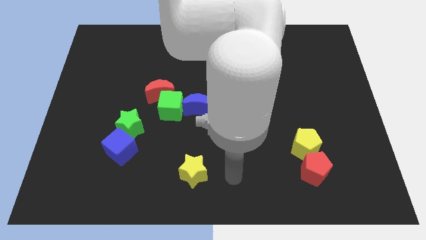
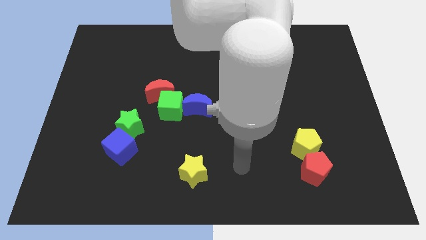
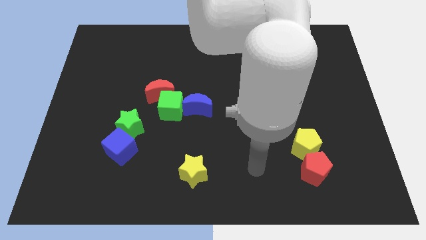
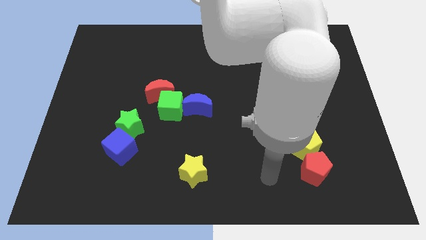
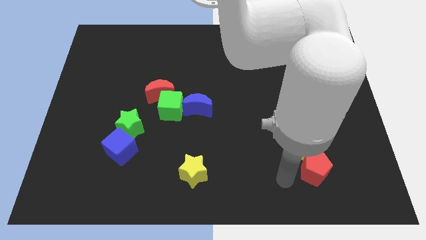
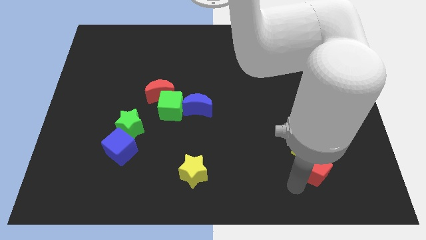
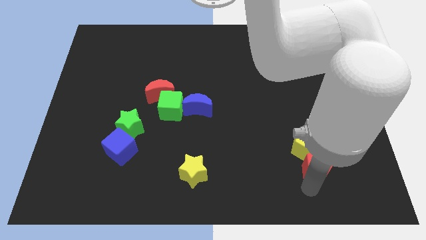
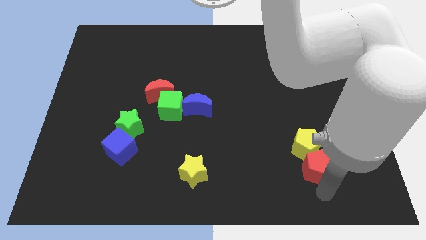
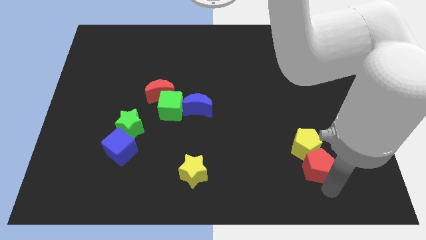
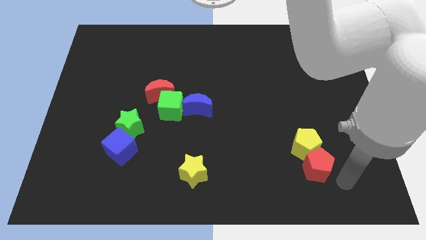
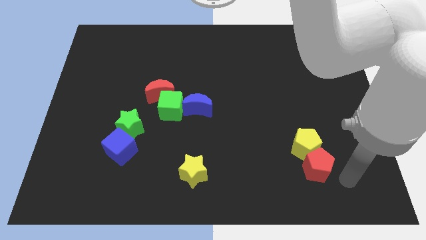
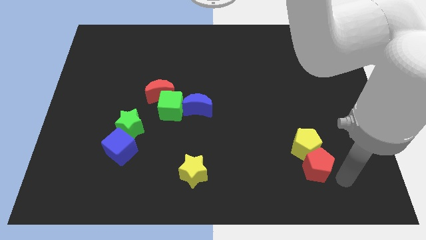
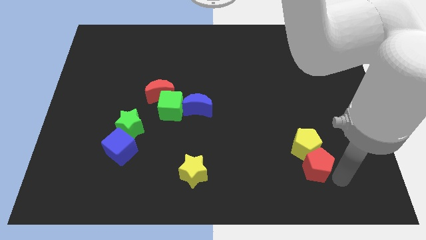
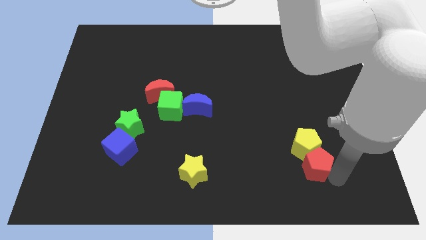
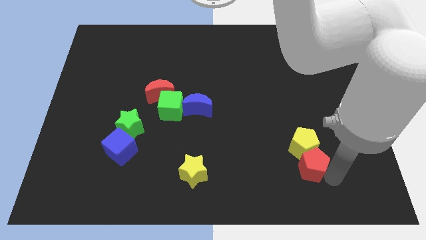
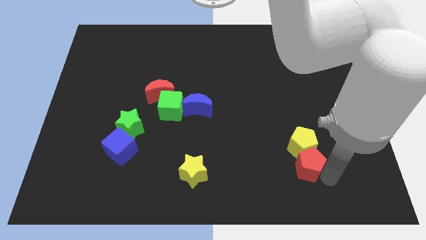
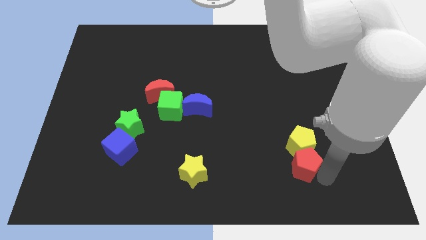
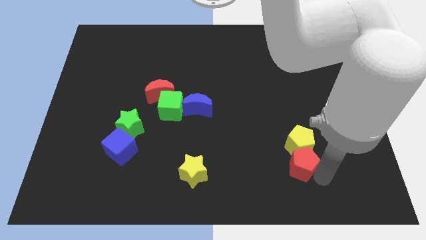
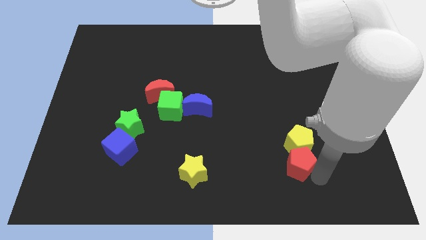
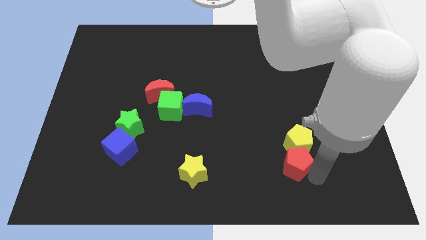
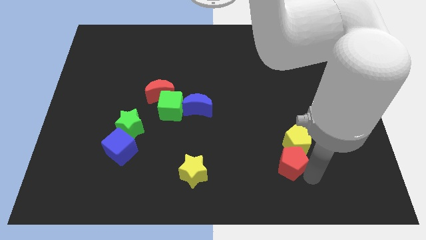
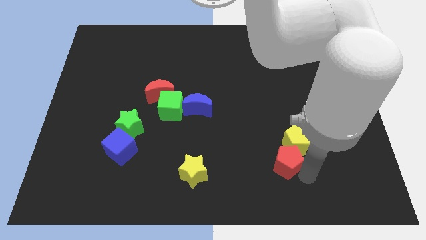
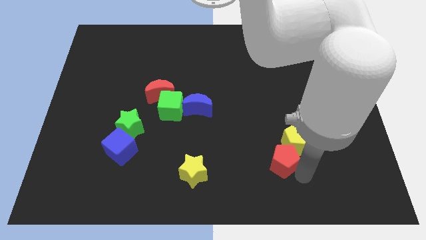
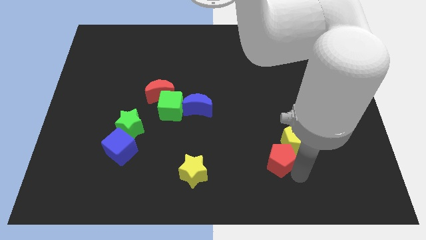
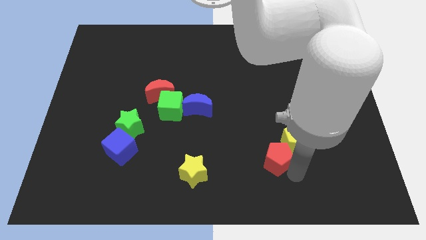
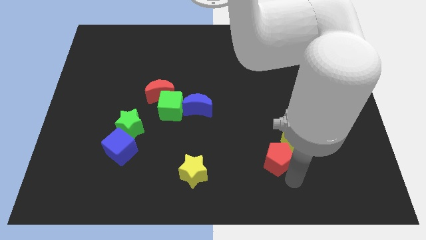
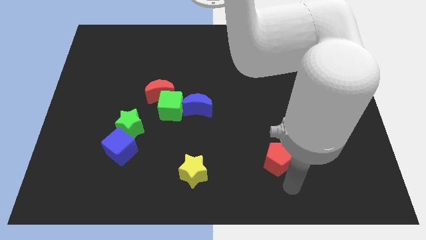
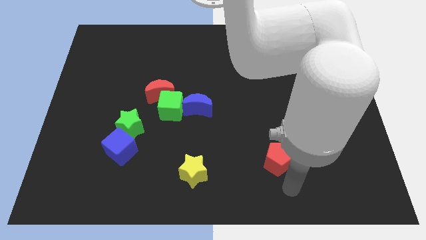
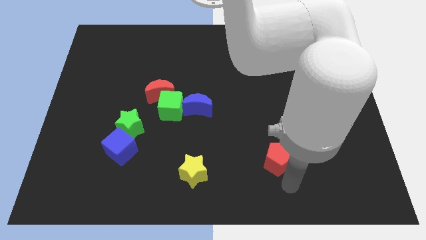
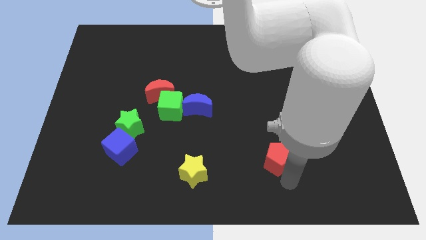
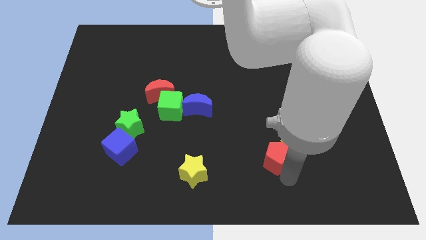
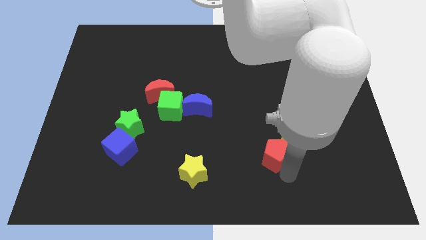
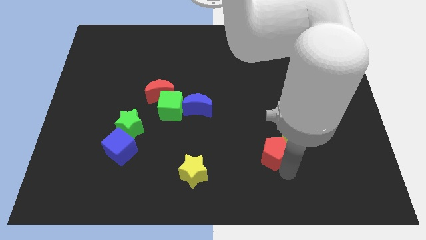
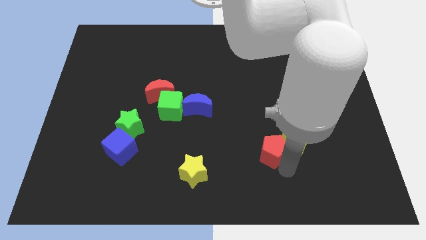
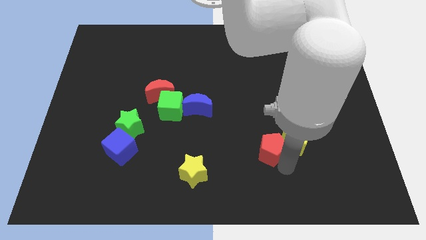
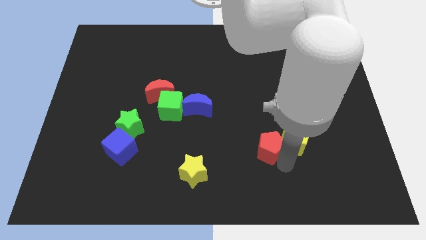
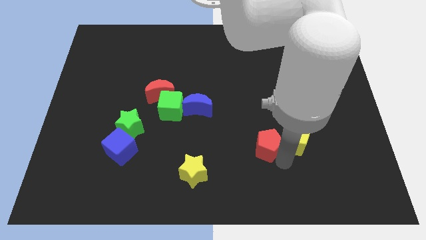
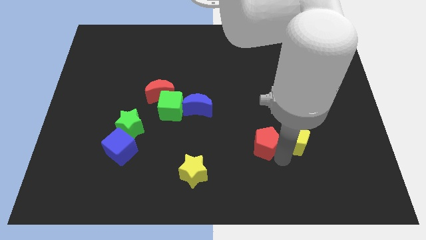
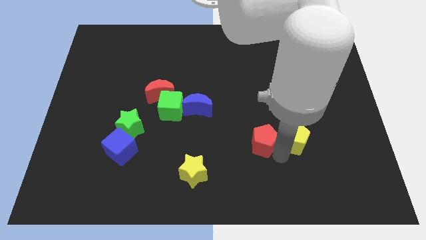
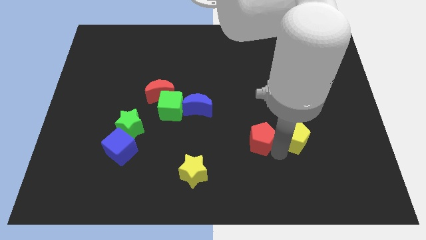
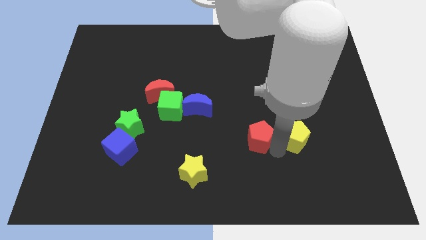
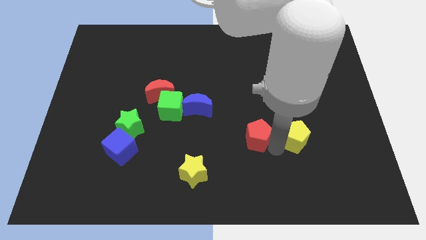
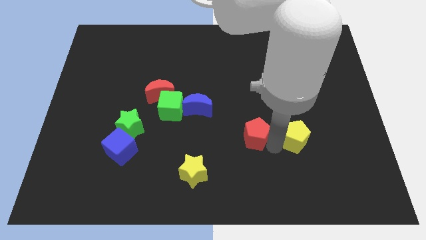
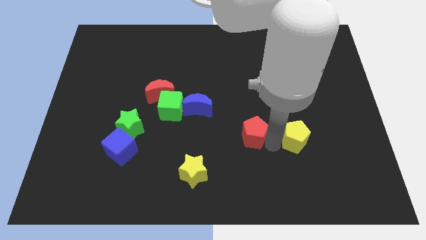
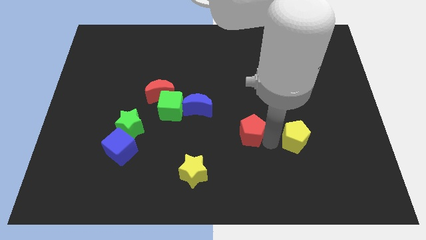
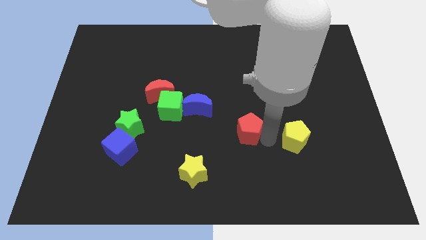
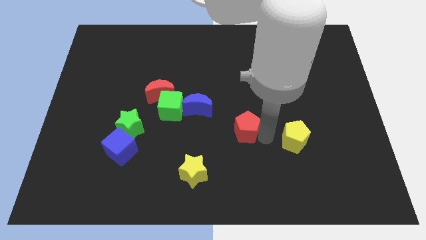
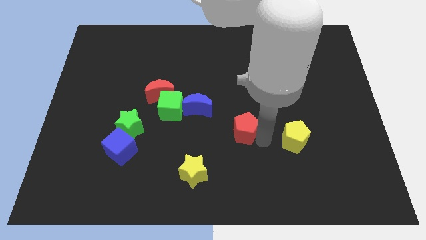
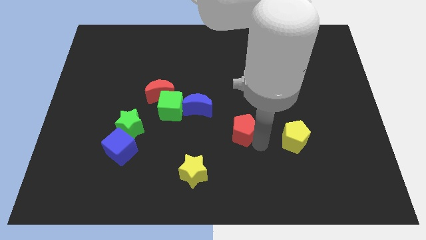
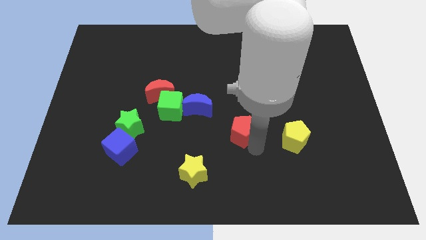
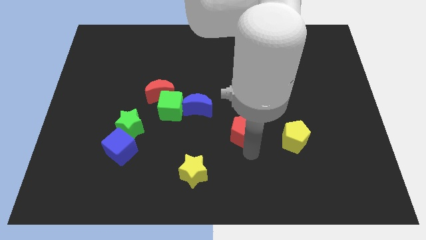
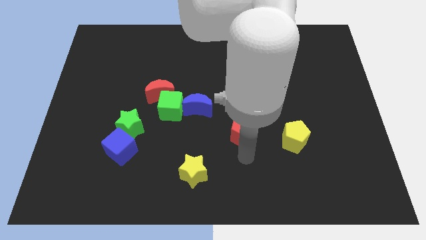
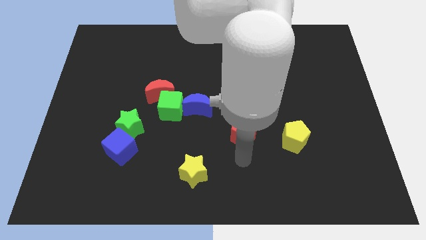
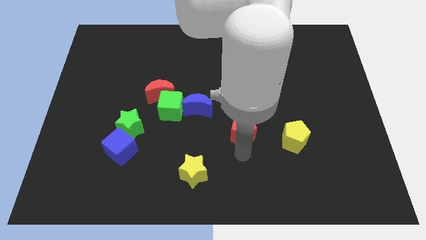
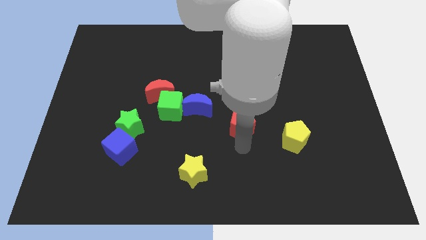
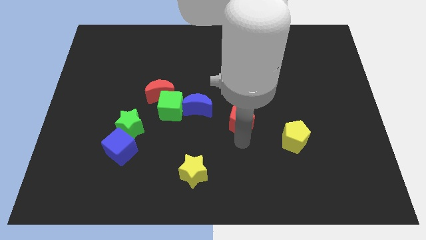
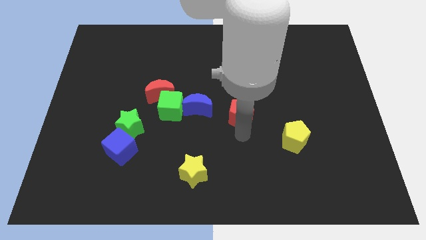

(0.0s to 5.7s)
move the red pentagon upwards and left diagonally

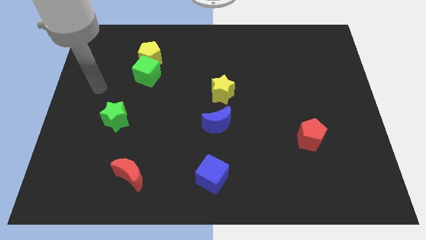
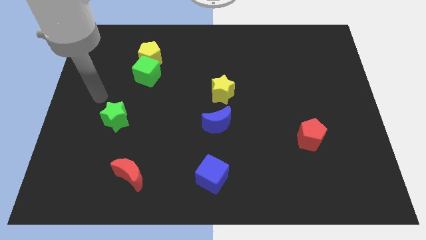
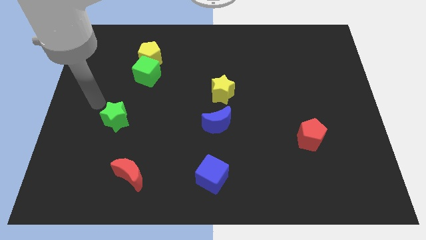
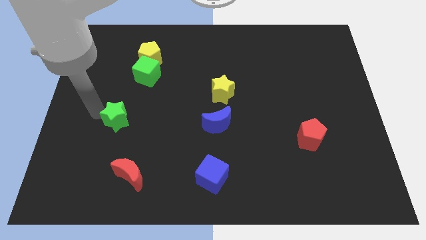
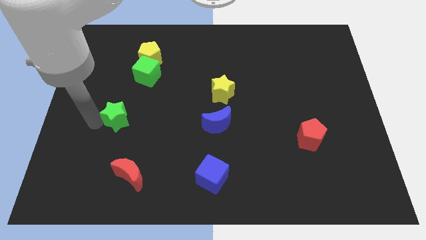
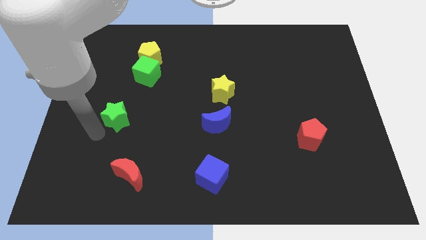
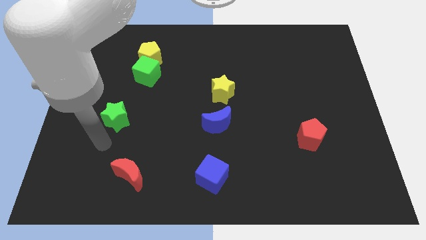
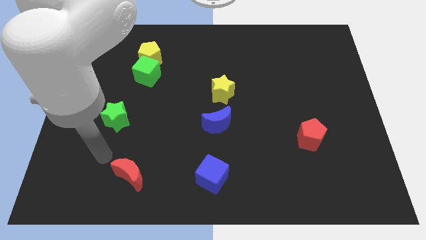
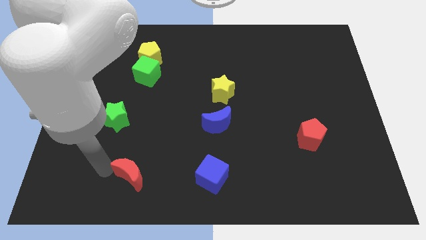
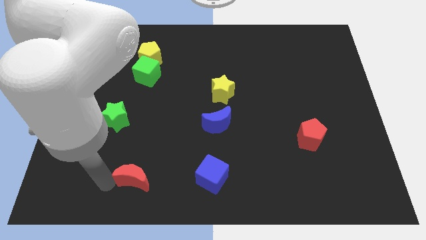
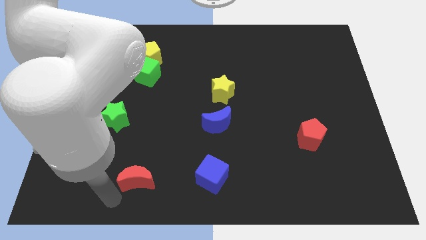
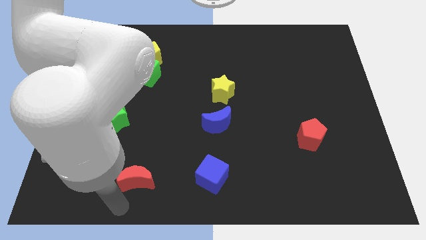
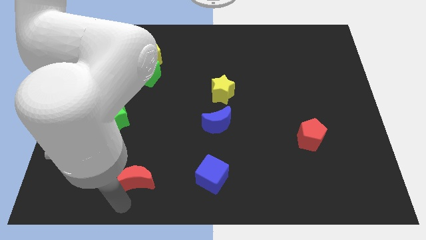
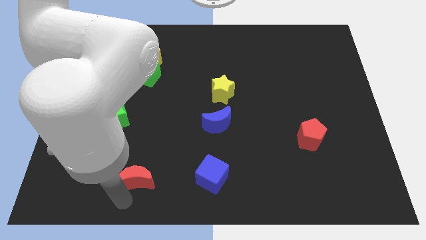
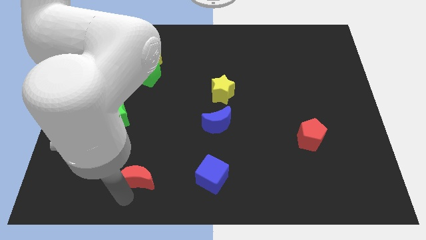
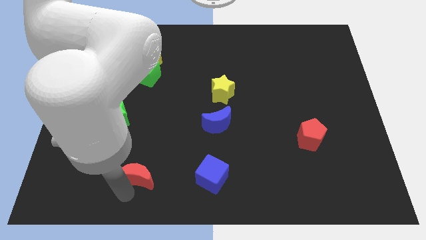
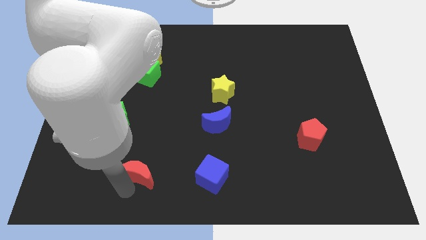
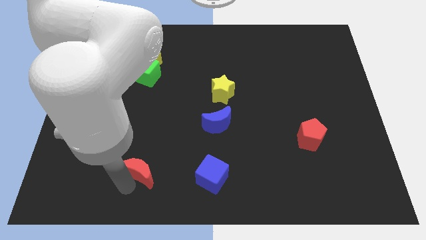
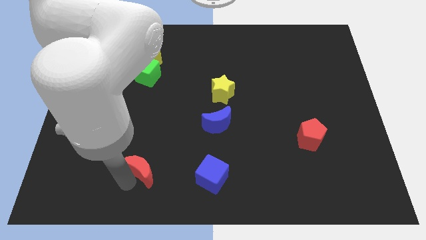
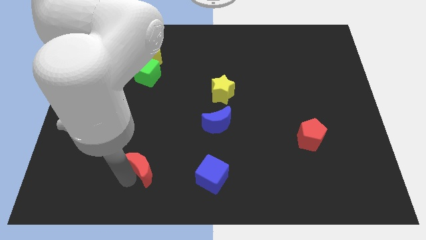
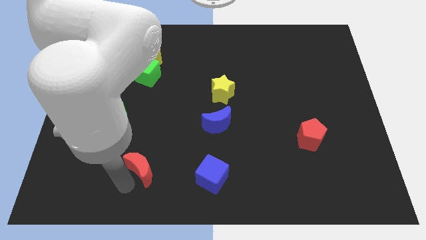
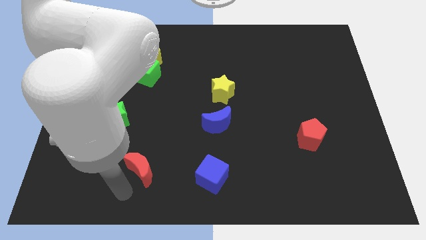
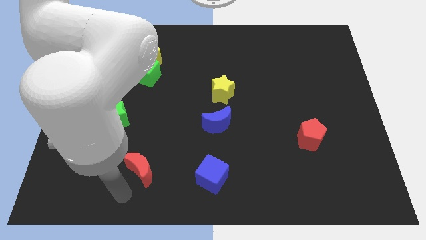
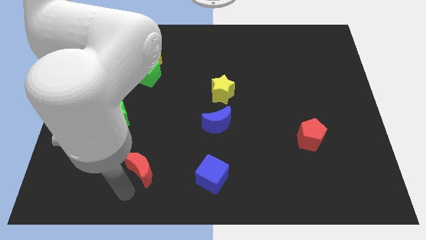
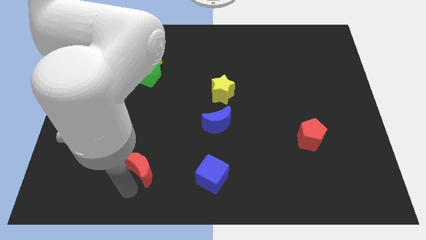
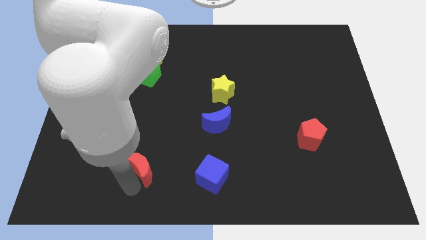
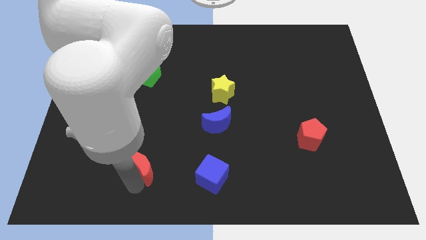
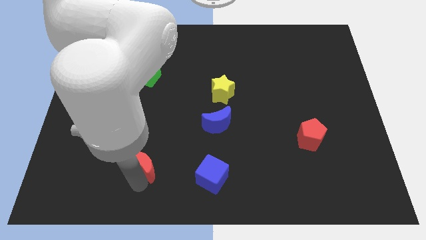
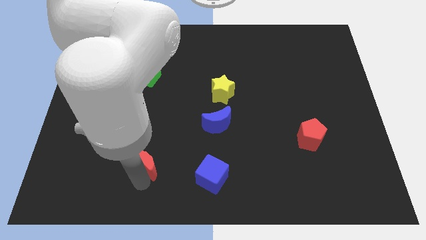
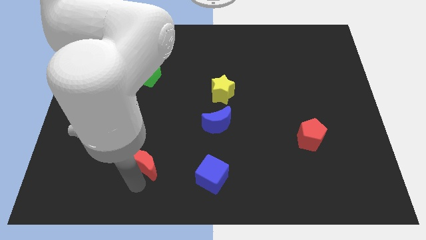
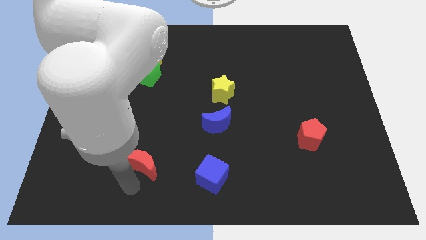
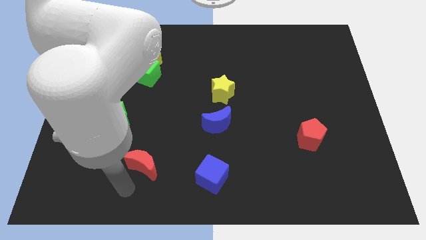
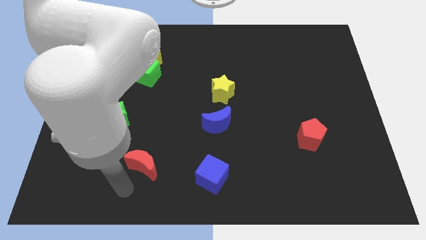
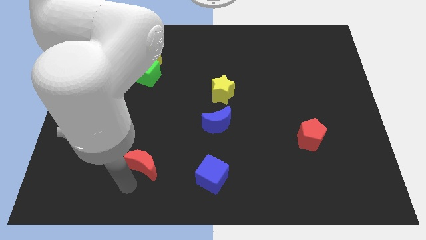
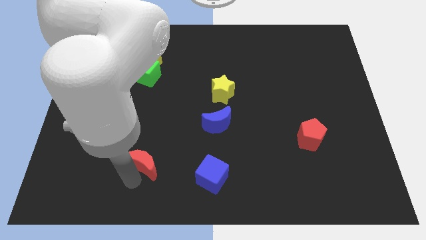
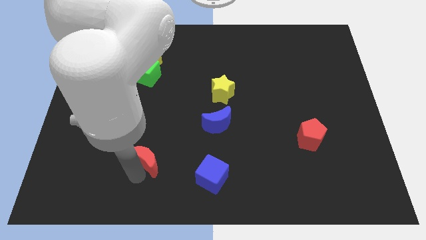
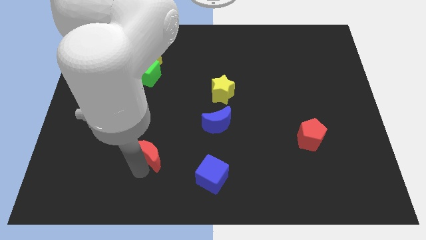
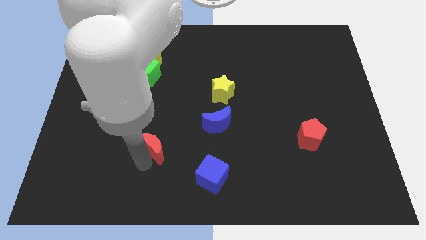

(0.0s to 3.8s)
slightly push the red moon upwards and right diagonally
